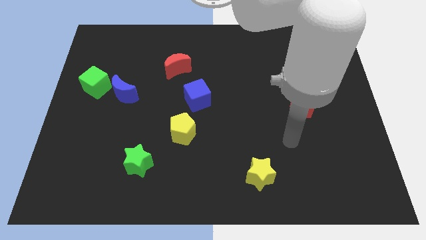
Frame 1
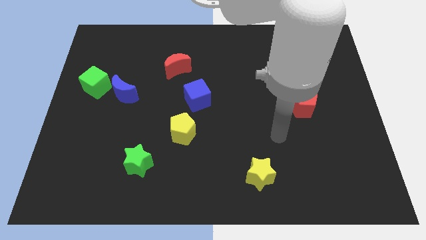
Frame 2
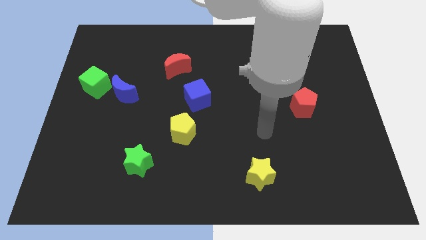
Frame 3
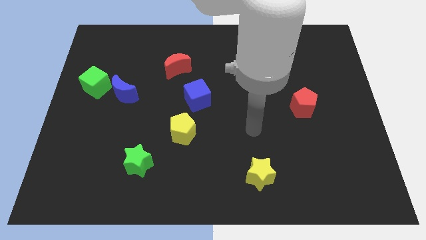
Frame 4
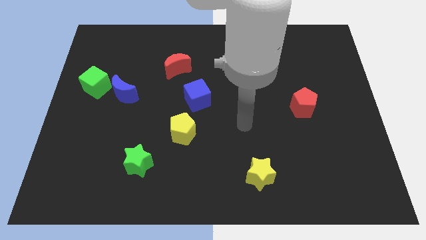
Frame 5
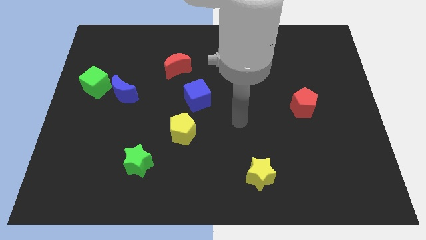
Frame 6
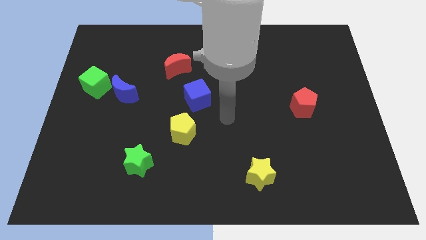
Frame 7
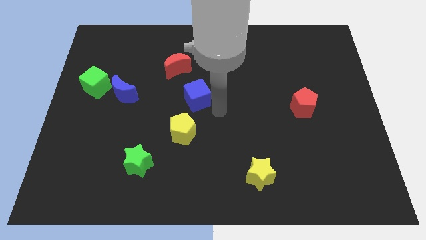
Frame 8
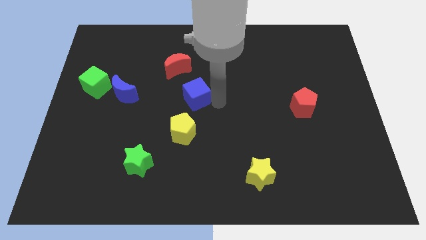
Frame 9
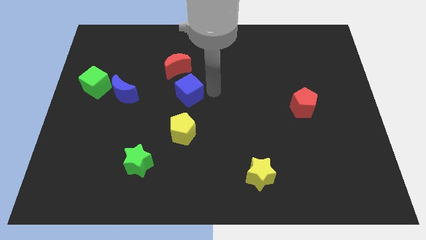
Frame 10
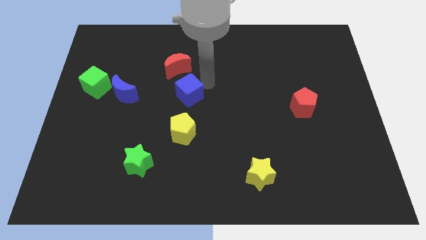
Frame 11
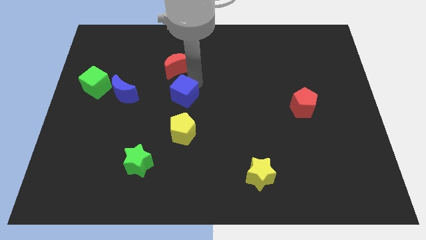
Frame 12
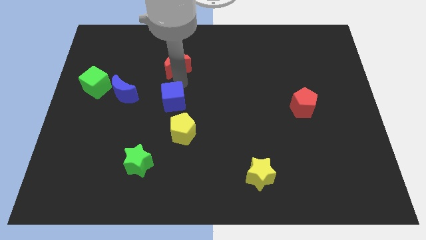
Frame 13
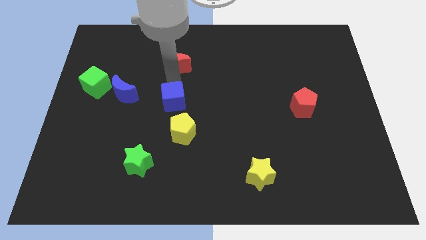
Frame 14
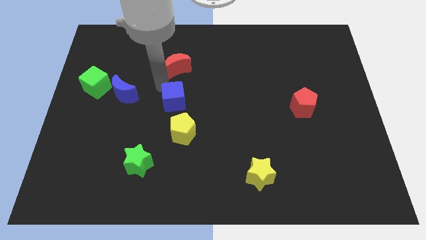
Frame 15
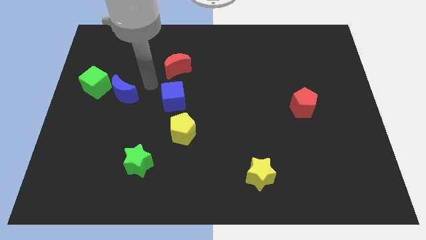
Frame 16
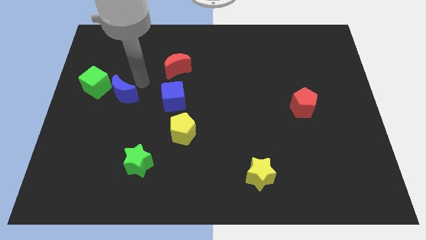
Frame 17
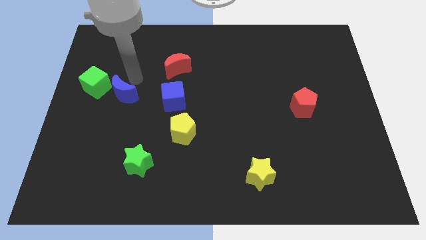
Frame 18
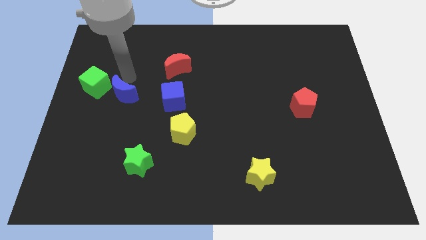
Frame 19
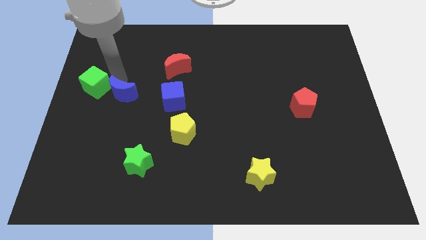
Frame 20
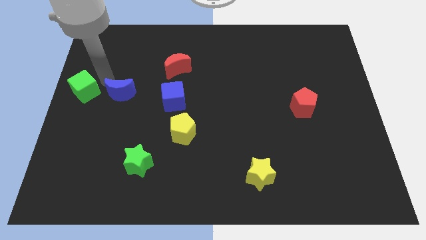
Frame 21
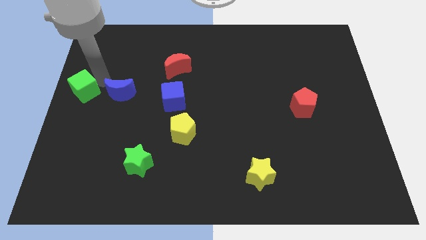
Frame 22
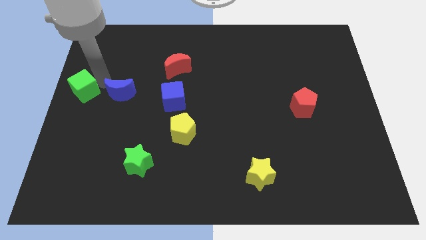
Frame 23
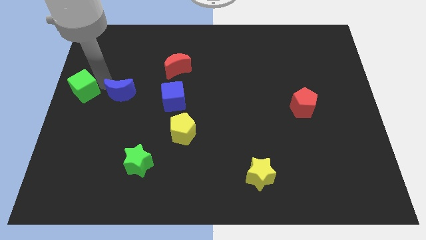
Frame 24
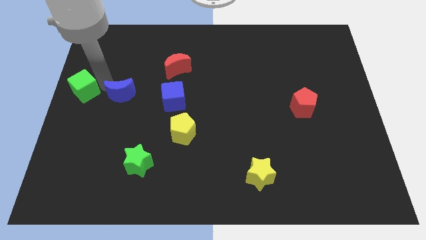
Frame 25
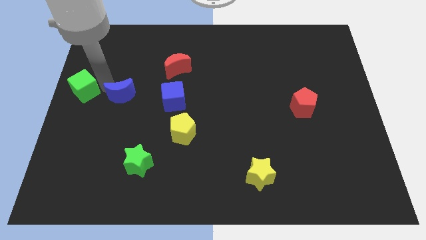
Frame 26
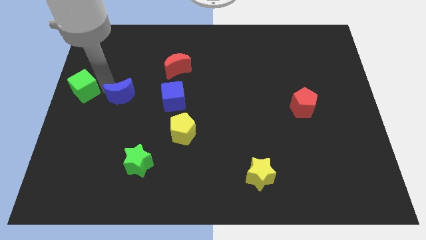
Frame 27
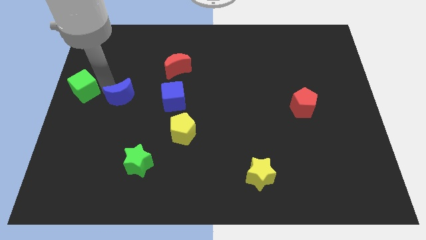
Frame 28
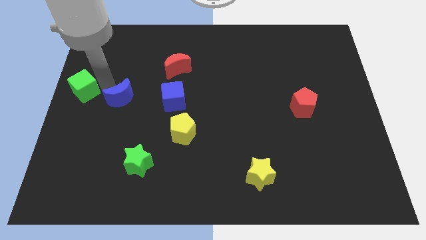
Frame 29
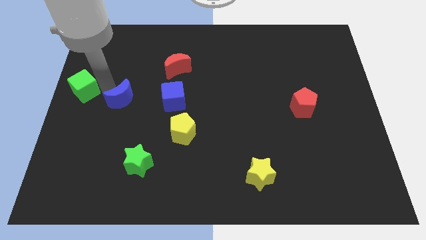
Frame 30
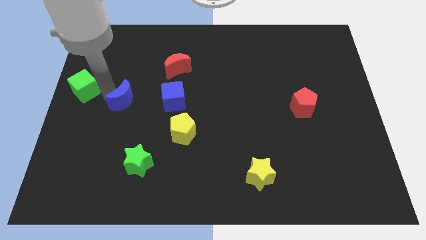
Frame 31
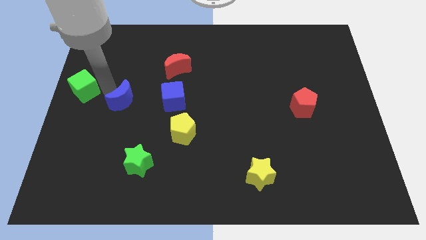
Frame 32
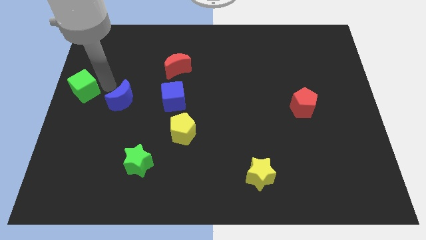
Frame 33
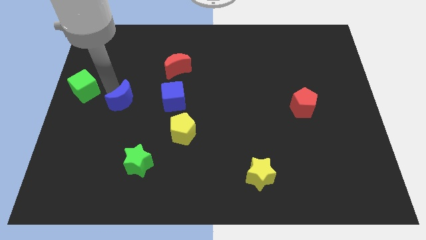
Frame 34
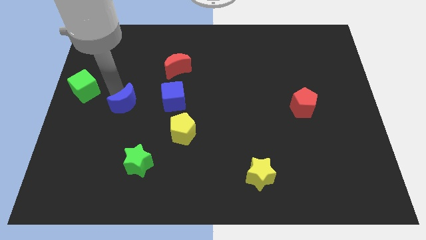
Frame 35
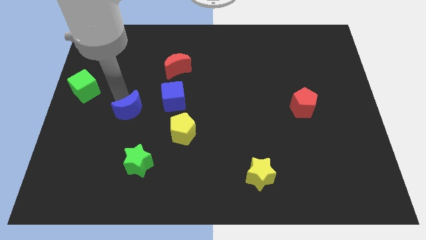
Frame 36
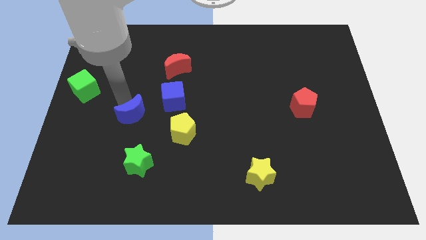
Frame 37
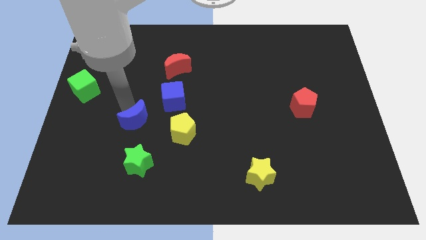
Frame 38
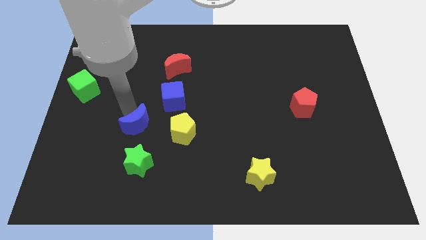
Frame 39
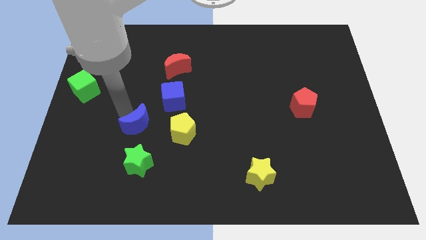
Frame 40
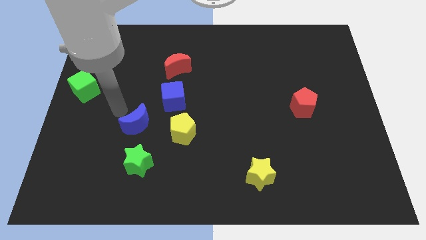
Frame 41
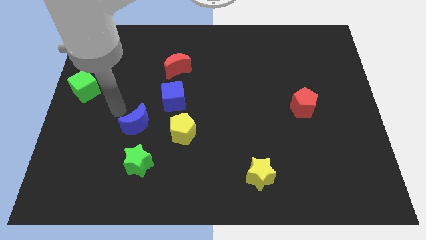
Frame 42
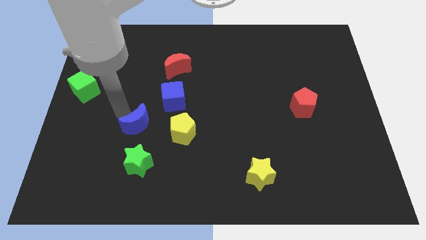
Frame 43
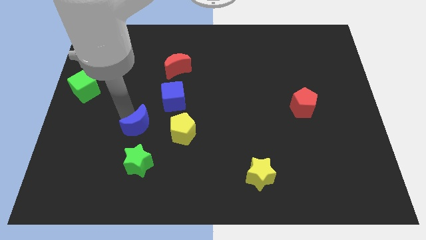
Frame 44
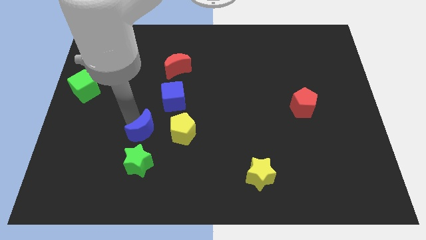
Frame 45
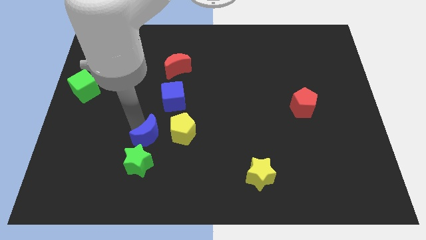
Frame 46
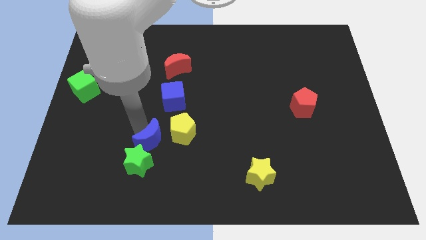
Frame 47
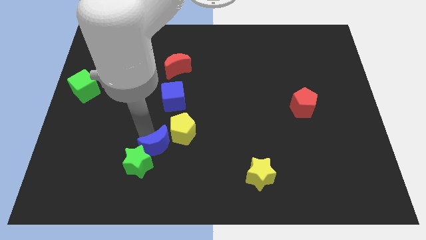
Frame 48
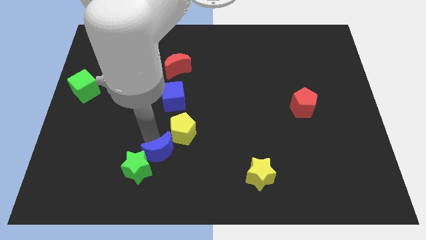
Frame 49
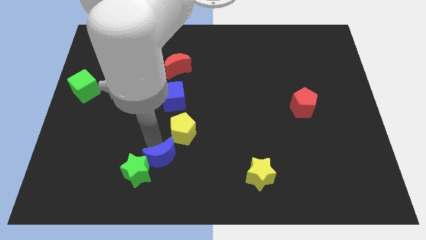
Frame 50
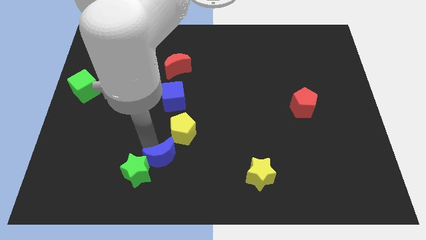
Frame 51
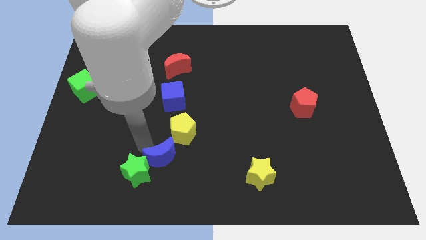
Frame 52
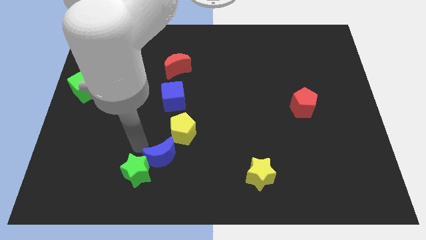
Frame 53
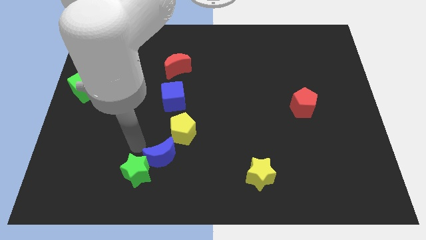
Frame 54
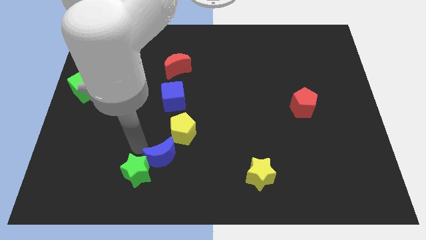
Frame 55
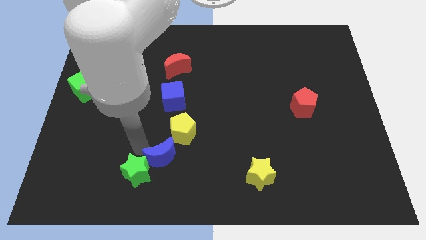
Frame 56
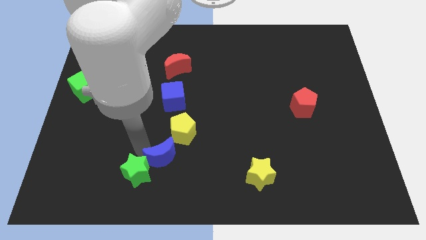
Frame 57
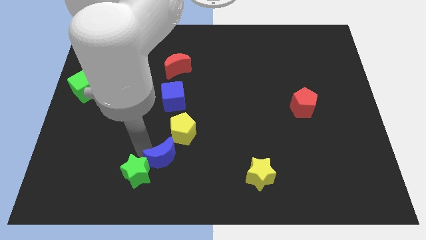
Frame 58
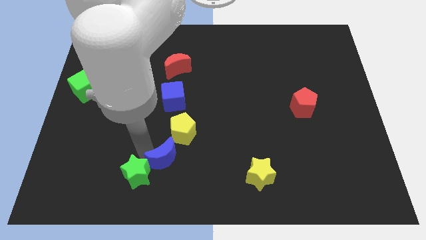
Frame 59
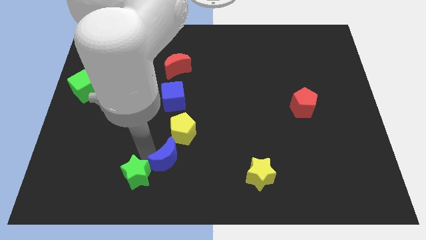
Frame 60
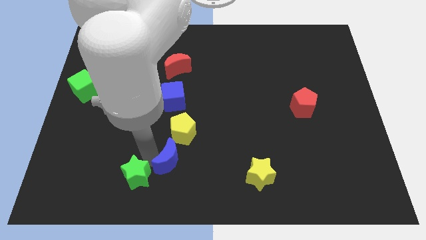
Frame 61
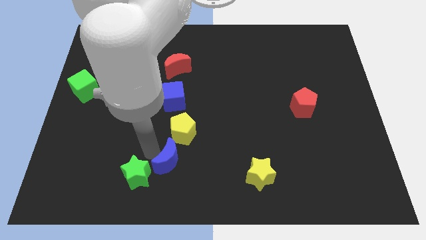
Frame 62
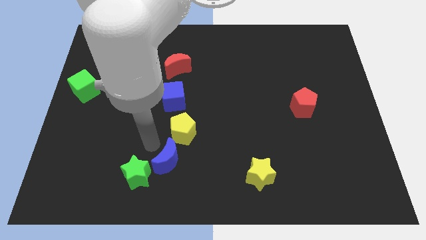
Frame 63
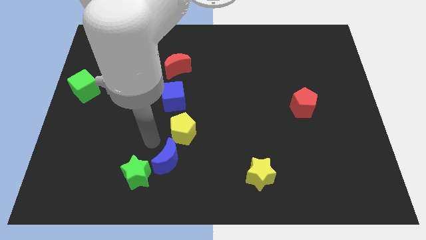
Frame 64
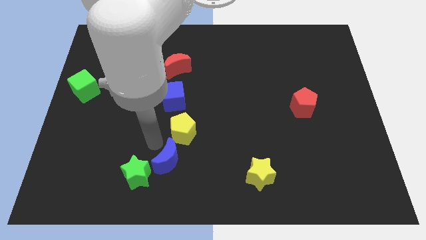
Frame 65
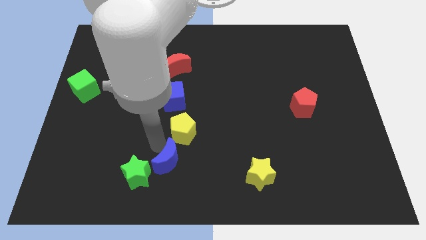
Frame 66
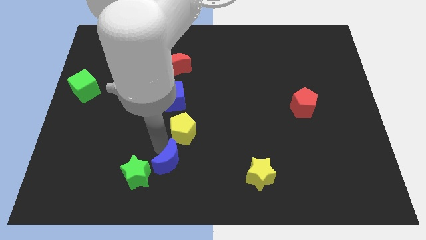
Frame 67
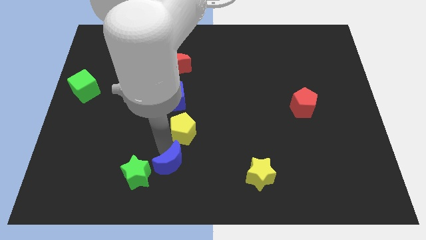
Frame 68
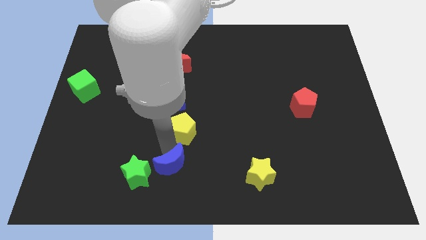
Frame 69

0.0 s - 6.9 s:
move the blue moon to the bottom side
